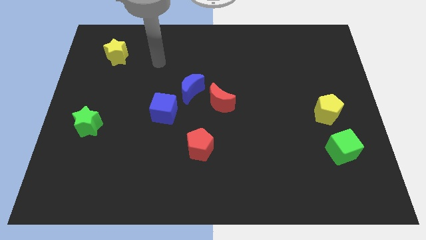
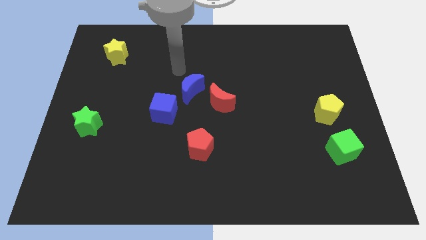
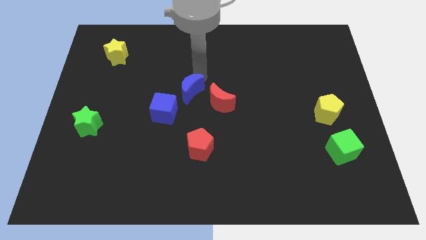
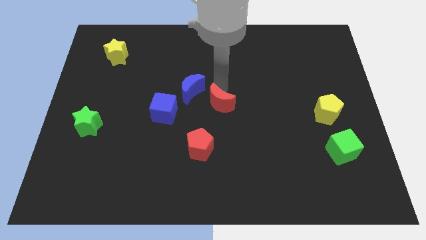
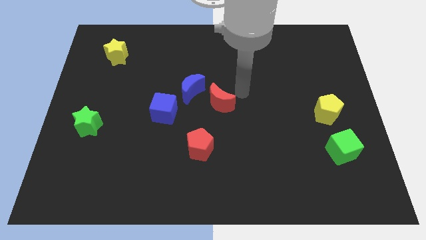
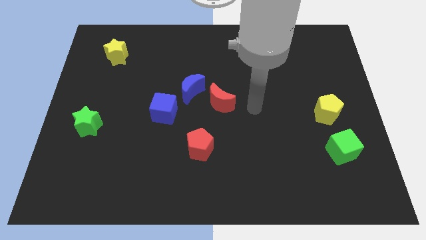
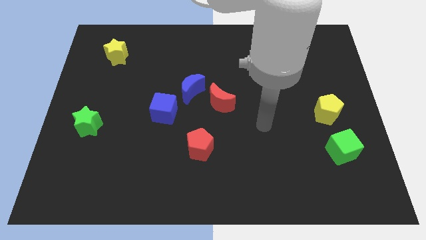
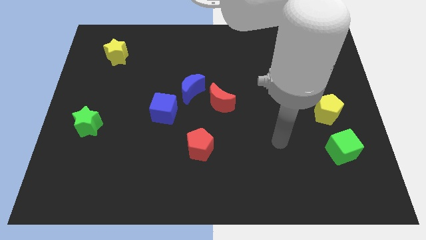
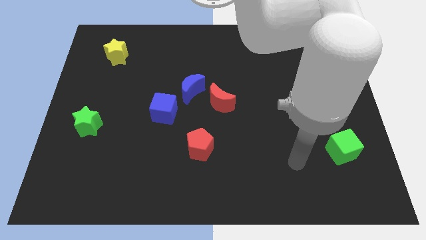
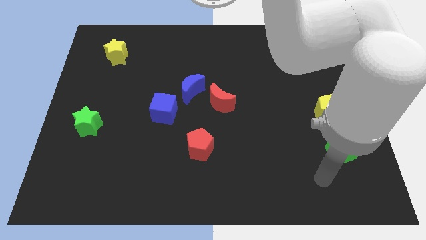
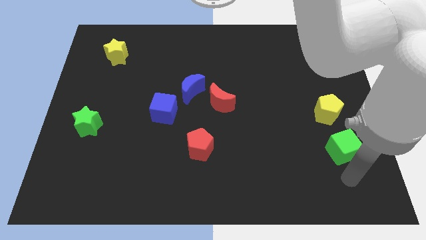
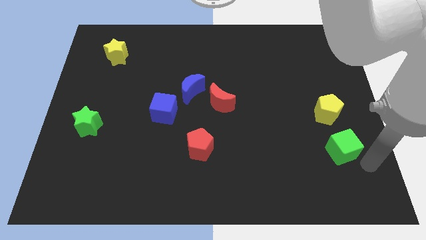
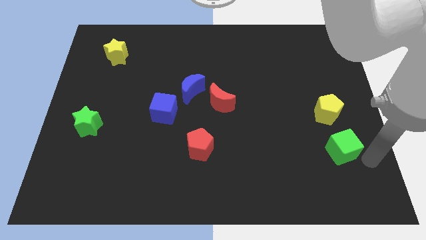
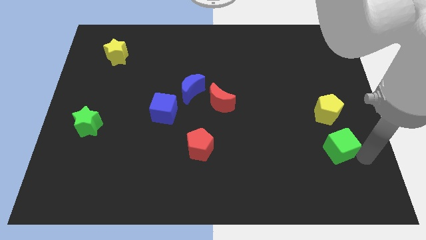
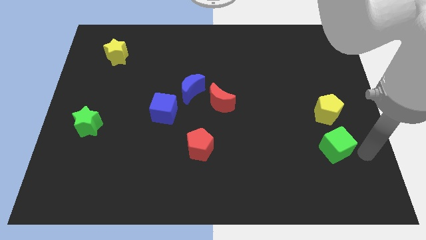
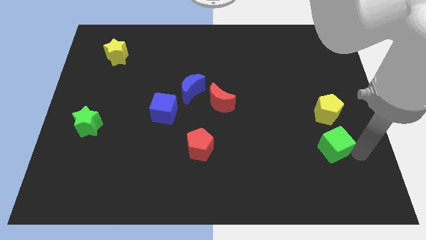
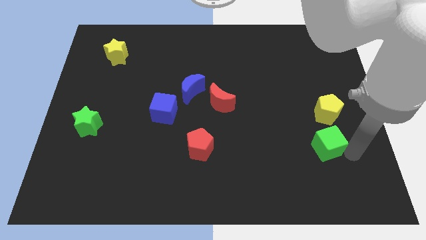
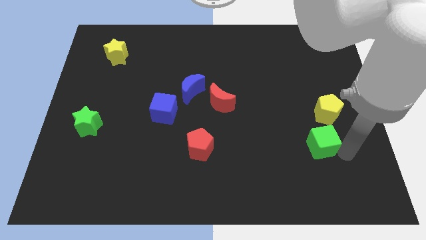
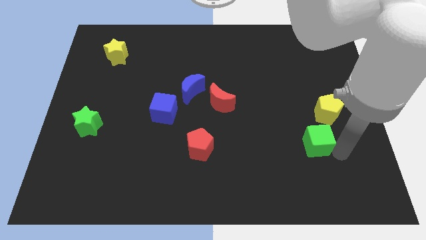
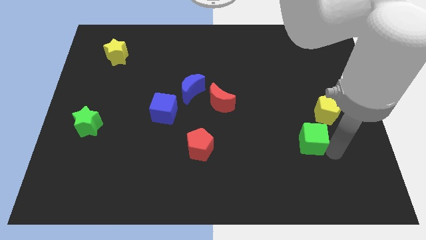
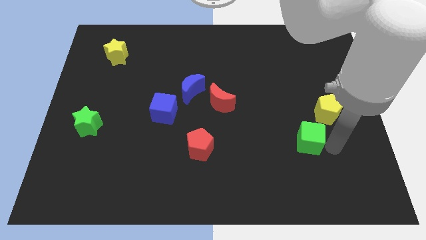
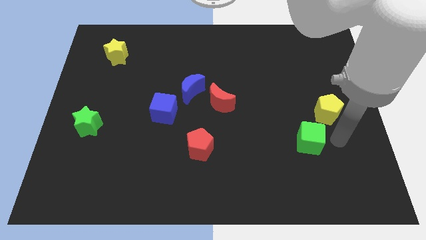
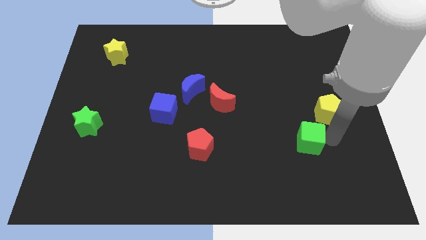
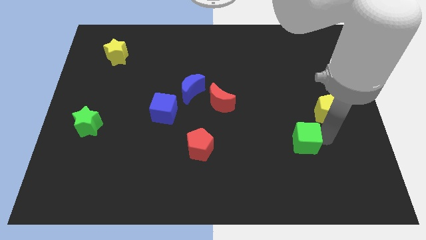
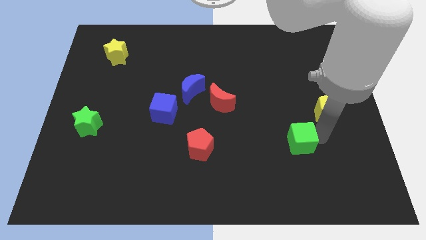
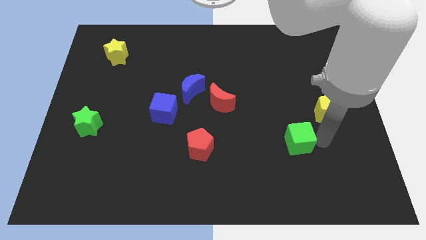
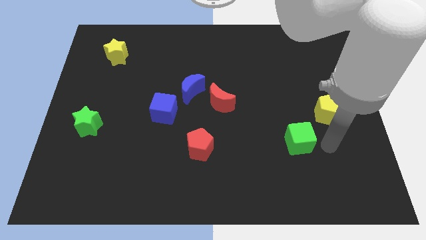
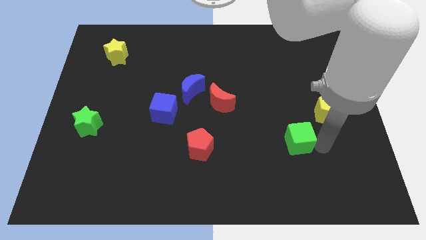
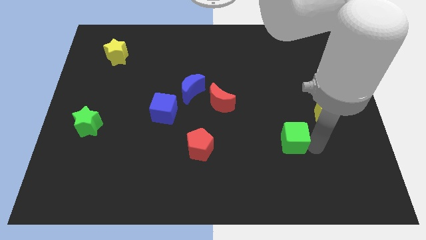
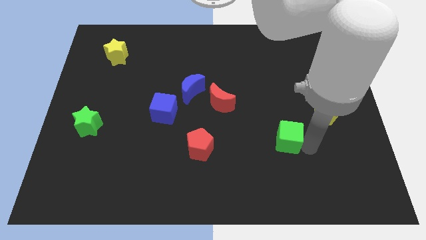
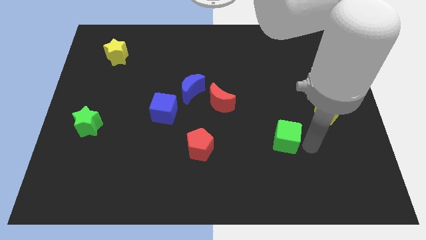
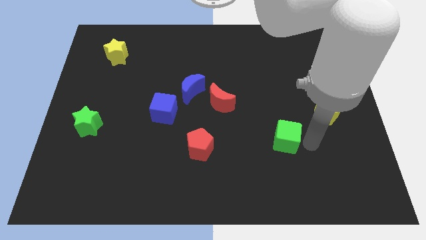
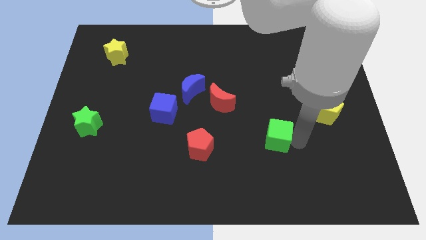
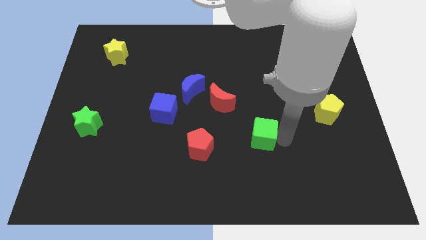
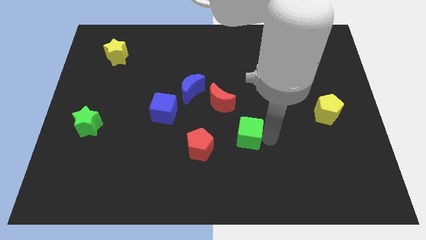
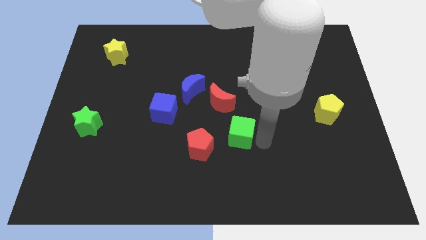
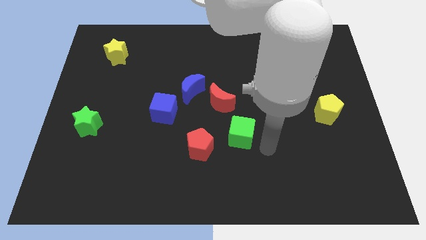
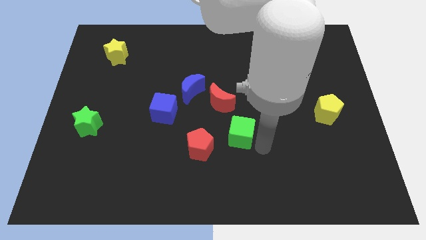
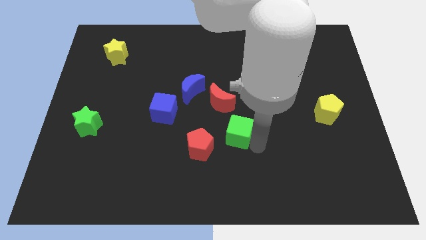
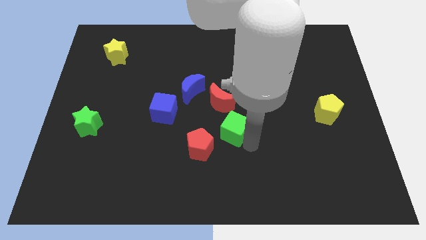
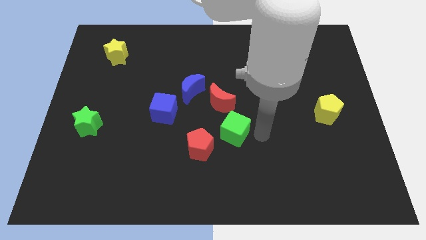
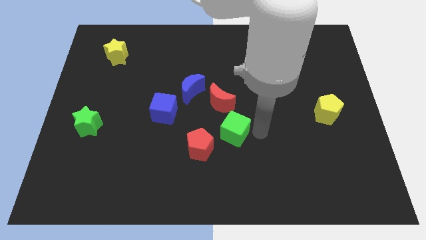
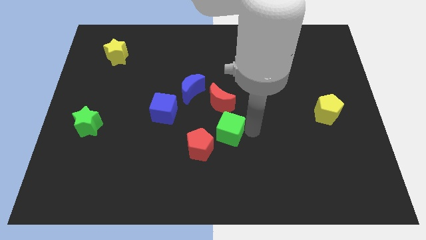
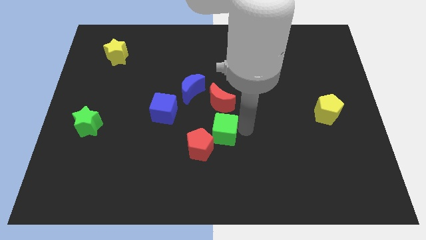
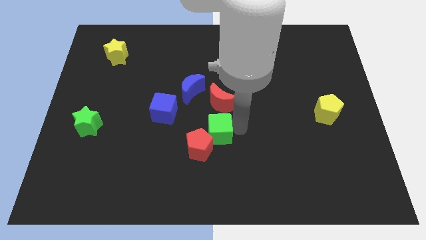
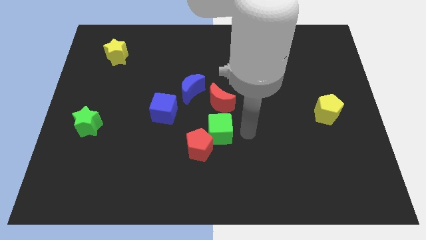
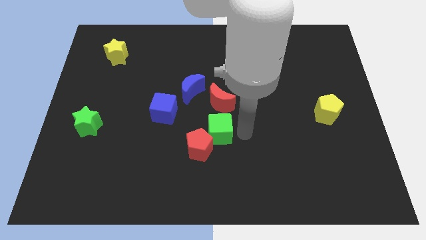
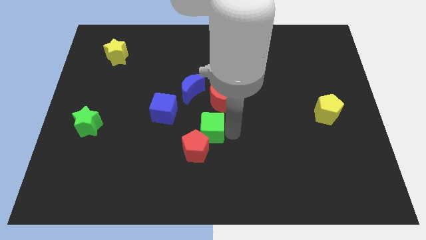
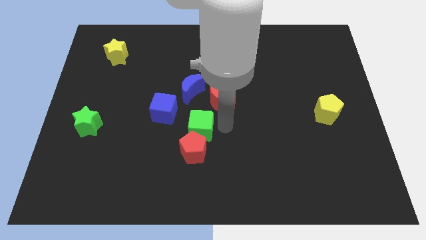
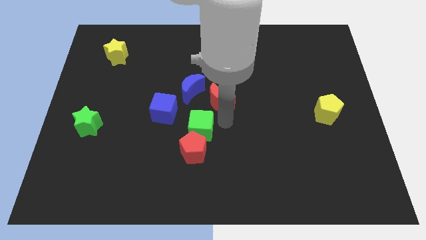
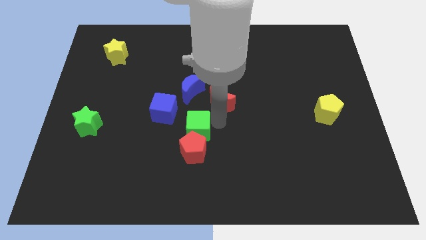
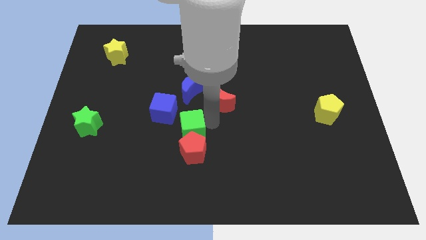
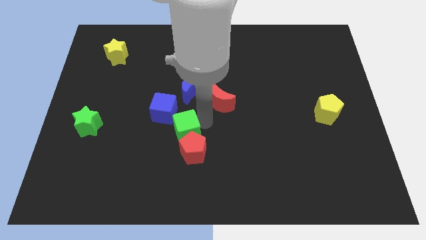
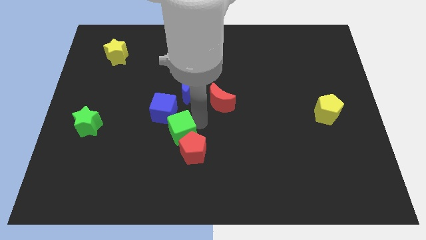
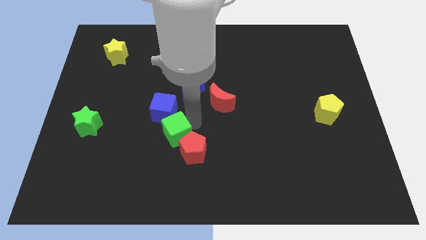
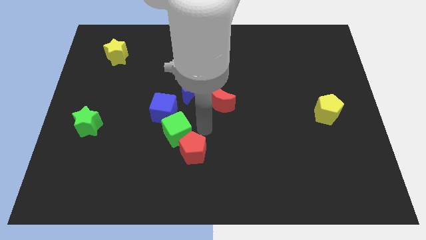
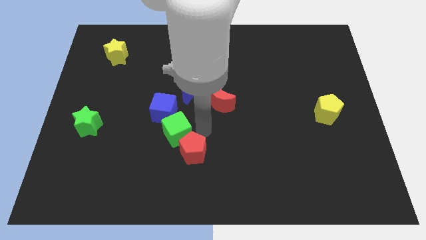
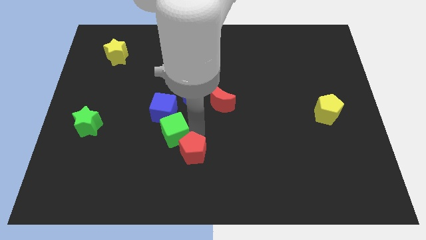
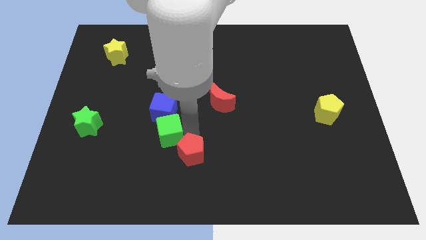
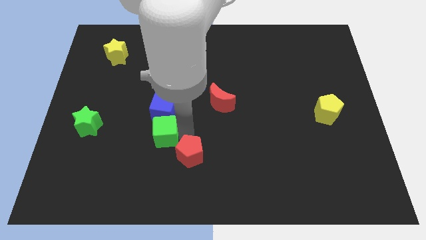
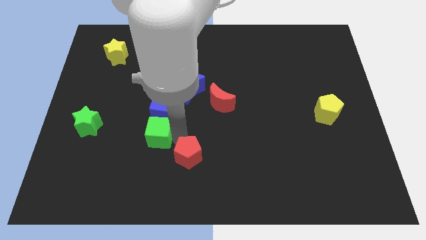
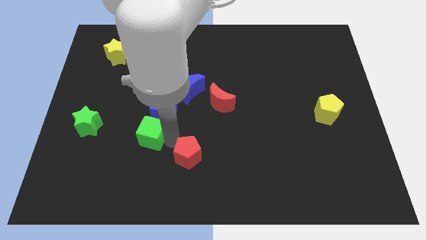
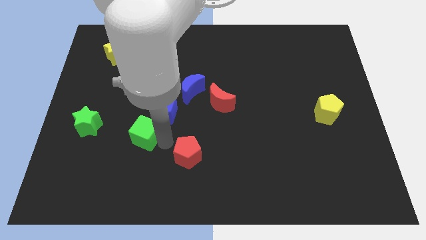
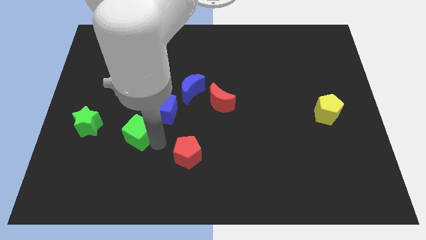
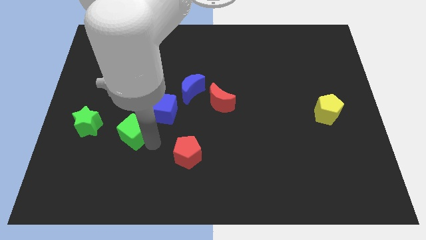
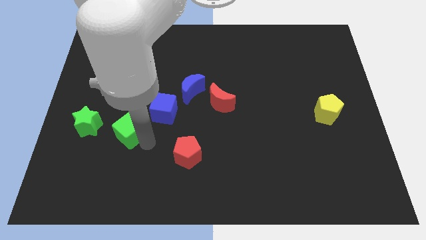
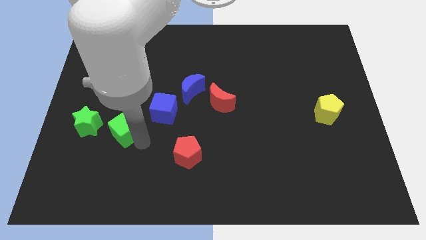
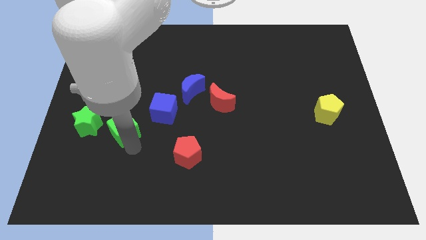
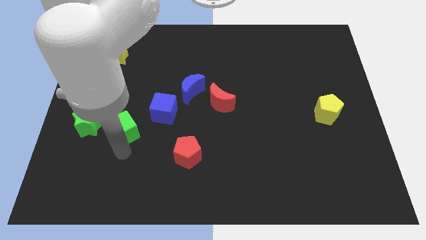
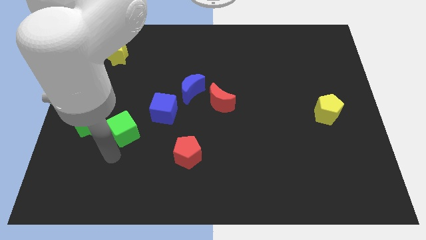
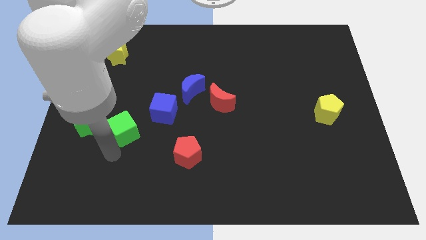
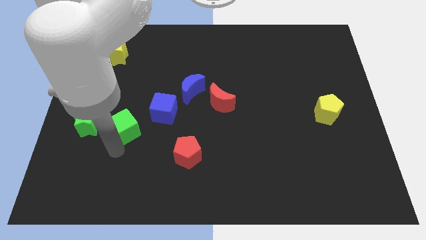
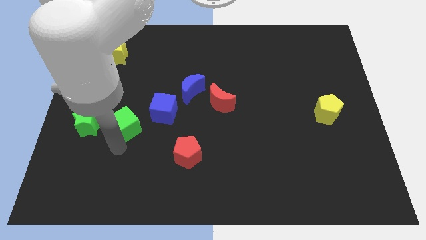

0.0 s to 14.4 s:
push the green cube left of the blue cube
